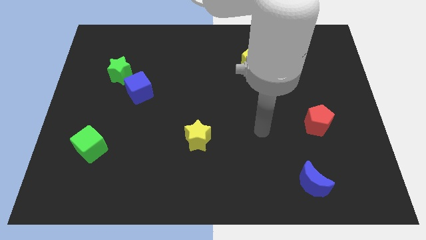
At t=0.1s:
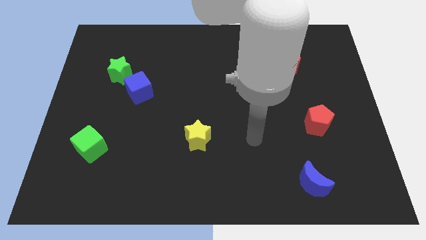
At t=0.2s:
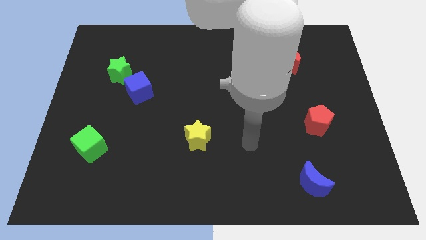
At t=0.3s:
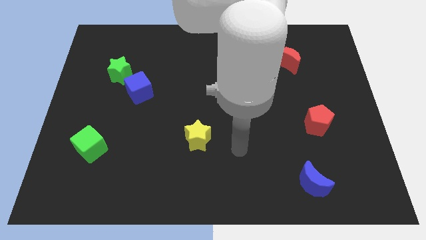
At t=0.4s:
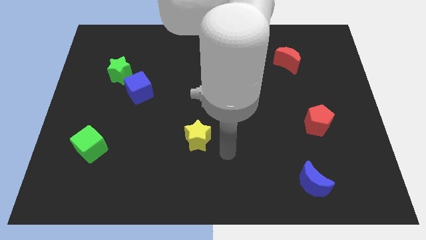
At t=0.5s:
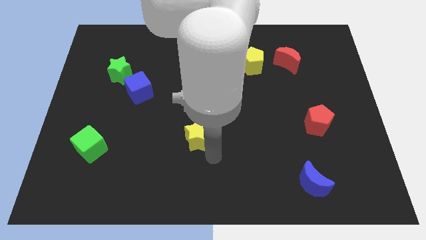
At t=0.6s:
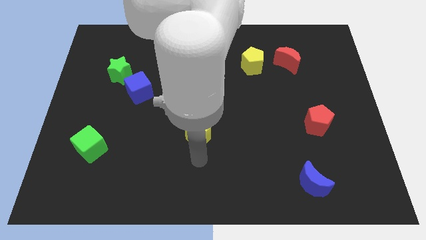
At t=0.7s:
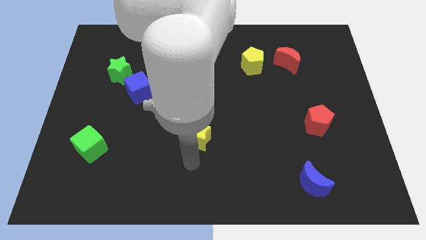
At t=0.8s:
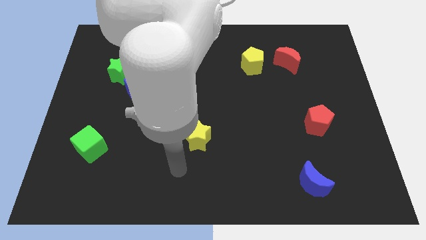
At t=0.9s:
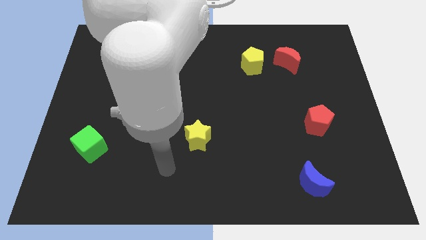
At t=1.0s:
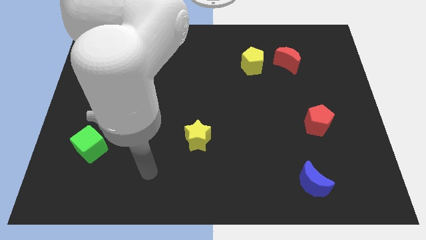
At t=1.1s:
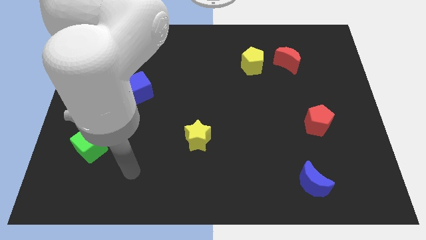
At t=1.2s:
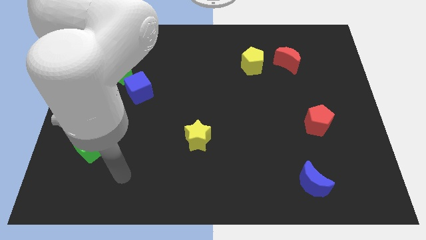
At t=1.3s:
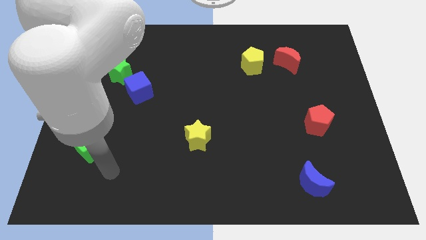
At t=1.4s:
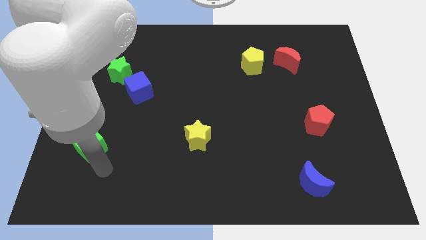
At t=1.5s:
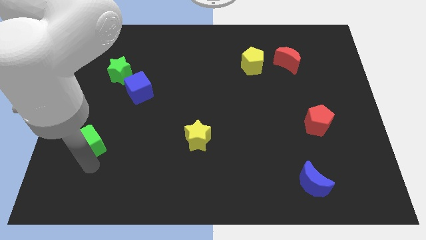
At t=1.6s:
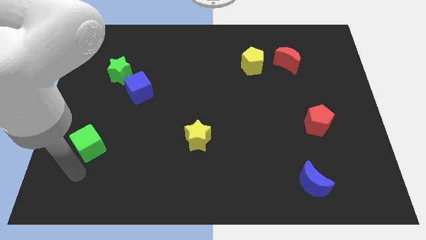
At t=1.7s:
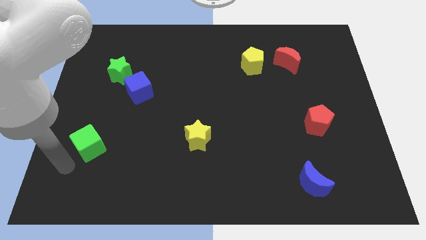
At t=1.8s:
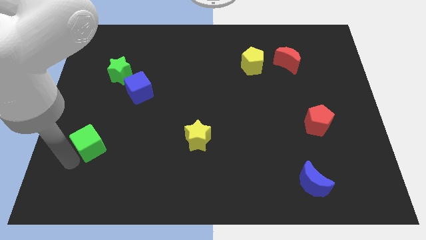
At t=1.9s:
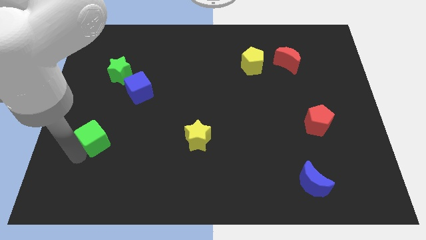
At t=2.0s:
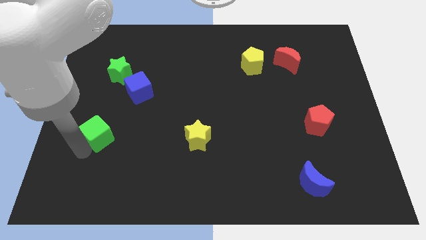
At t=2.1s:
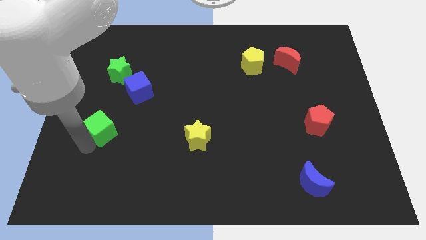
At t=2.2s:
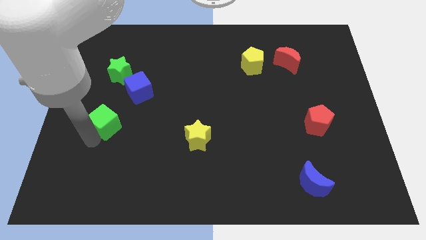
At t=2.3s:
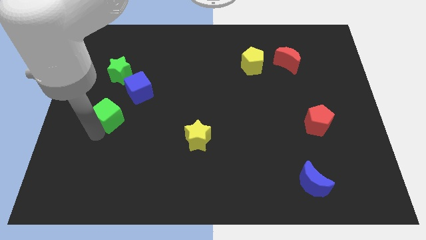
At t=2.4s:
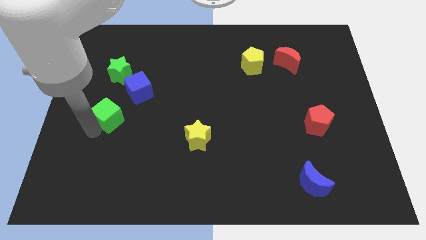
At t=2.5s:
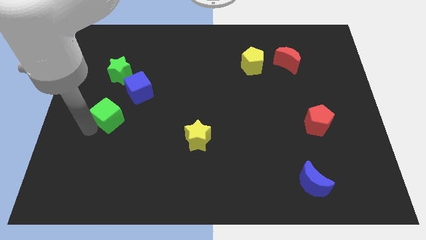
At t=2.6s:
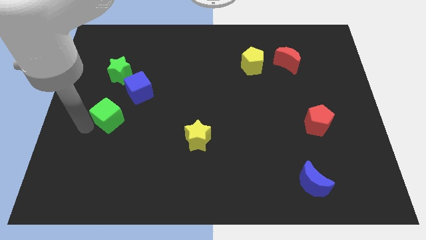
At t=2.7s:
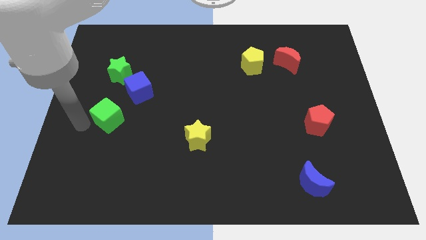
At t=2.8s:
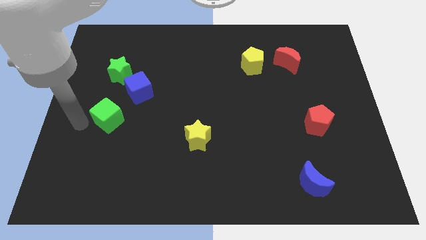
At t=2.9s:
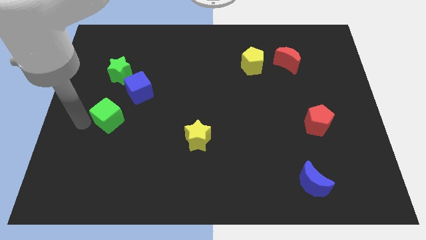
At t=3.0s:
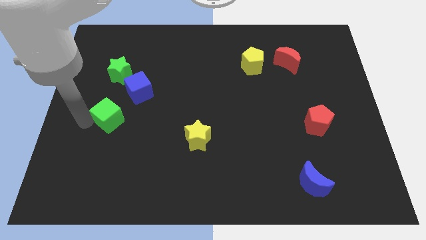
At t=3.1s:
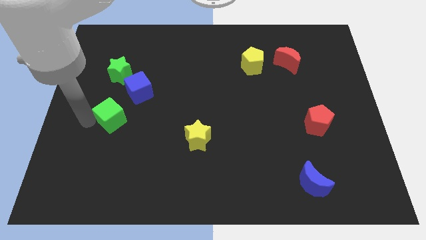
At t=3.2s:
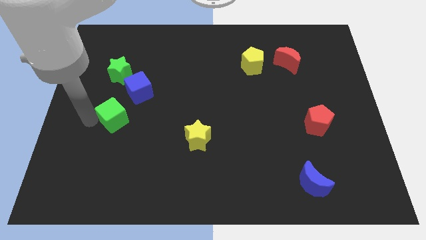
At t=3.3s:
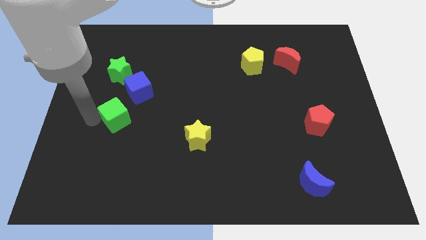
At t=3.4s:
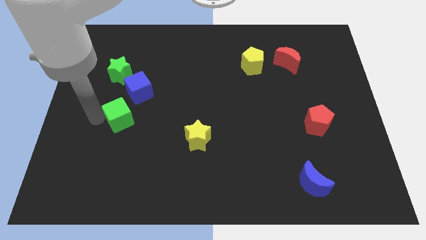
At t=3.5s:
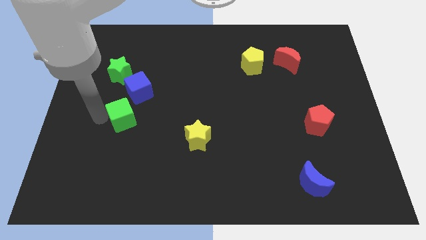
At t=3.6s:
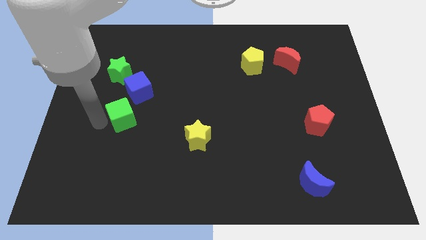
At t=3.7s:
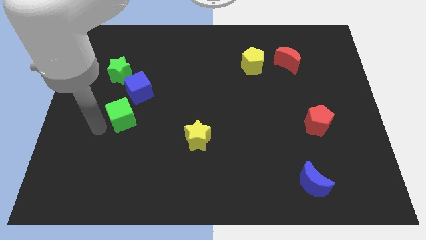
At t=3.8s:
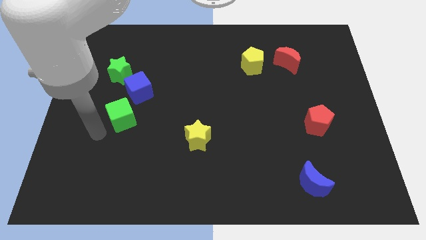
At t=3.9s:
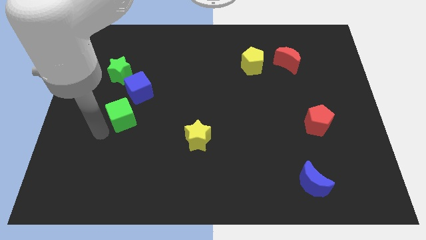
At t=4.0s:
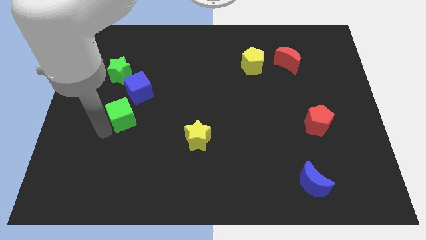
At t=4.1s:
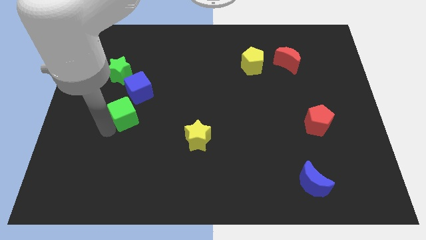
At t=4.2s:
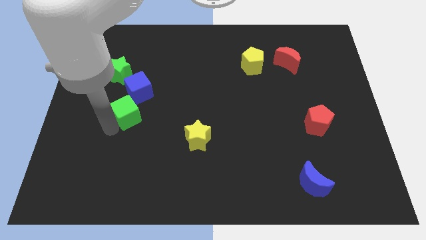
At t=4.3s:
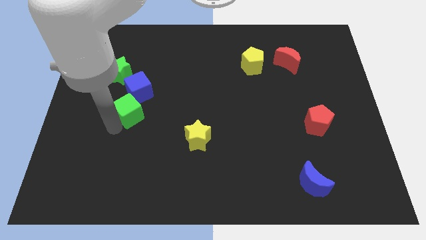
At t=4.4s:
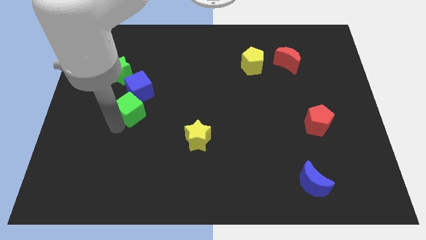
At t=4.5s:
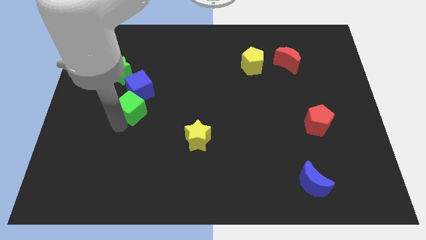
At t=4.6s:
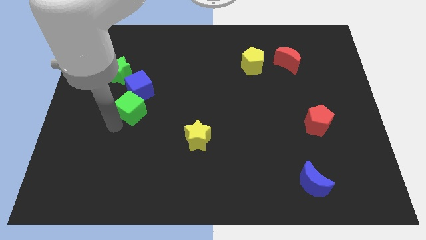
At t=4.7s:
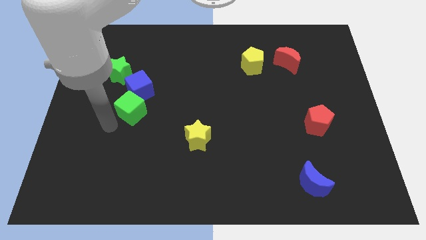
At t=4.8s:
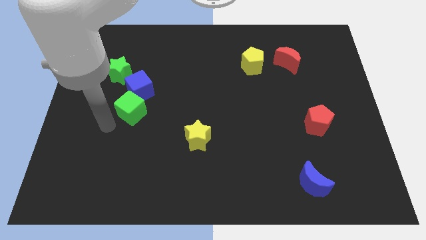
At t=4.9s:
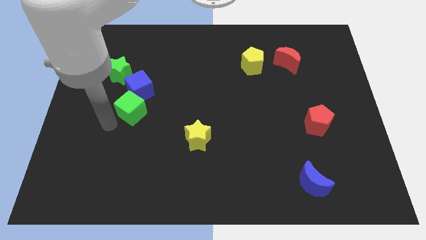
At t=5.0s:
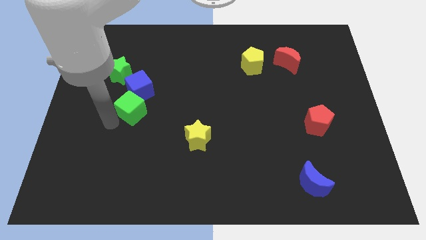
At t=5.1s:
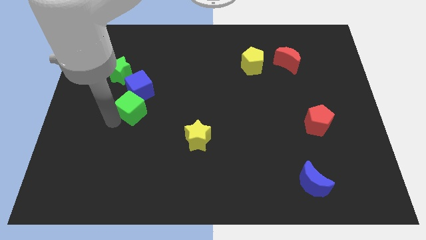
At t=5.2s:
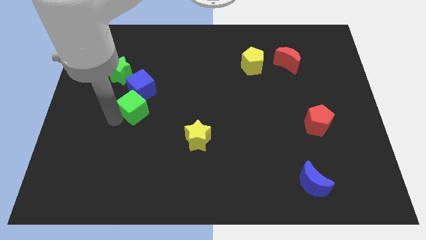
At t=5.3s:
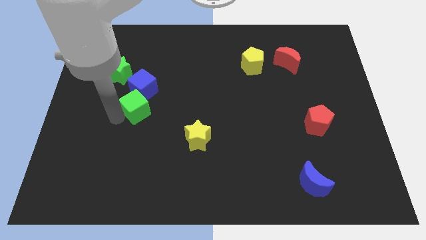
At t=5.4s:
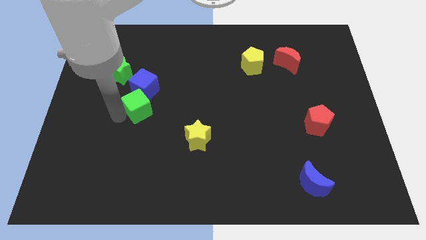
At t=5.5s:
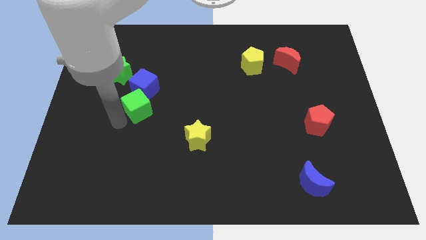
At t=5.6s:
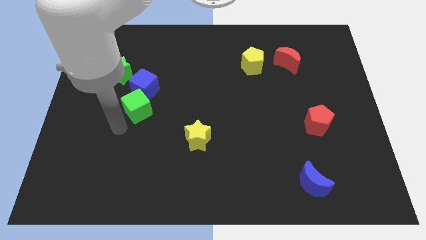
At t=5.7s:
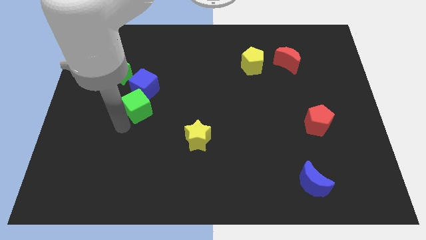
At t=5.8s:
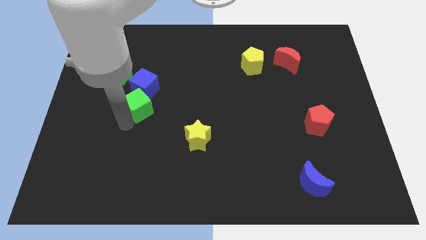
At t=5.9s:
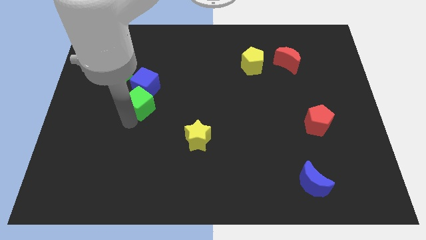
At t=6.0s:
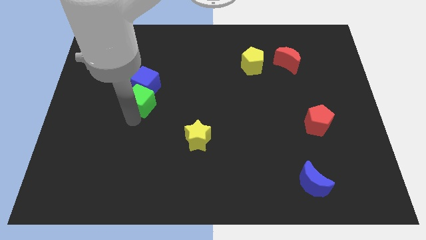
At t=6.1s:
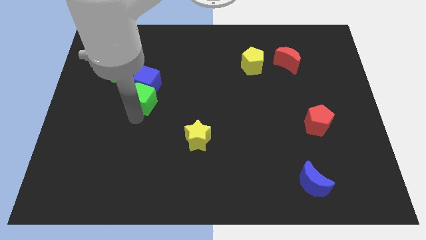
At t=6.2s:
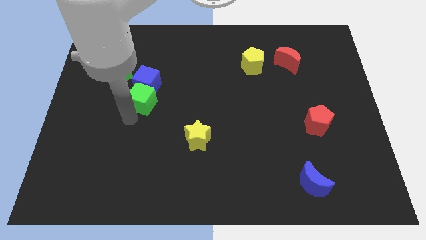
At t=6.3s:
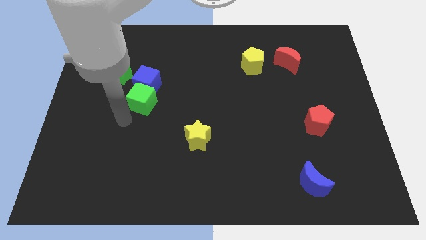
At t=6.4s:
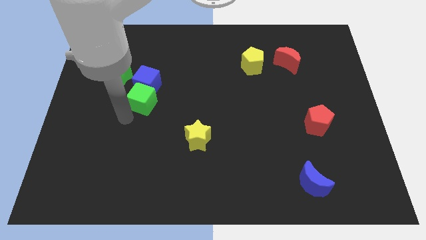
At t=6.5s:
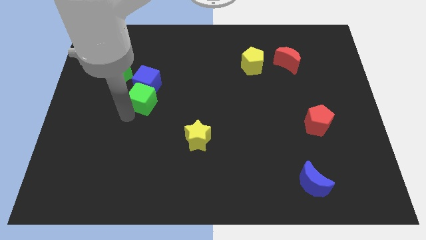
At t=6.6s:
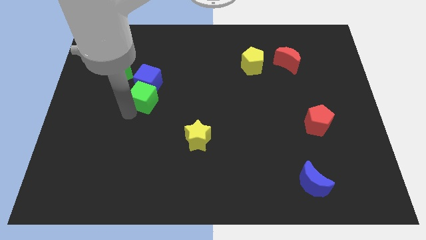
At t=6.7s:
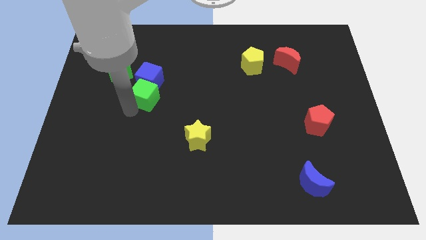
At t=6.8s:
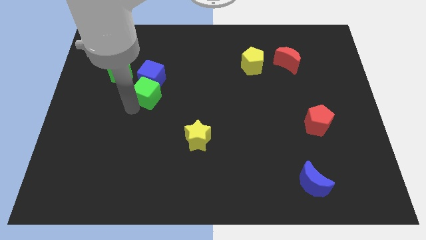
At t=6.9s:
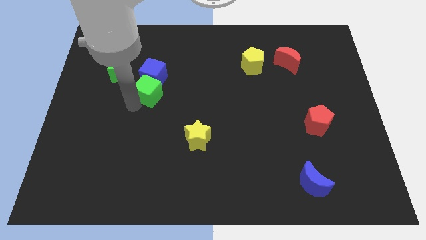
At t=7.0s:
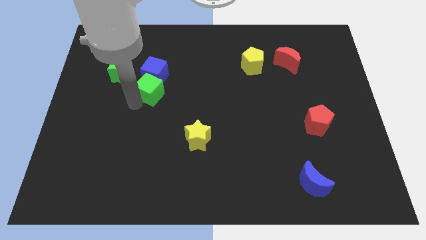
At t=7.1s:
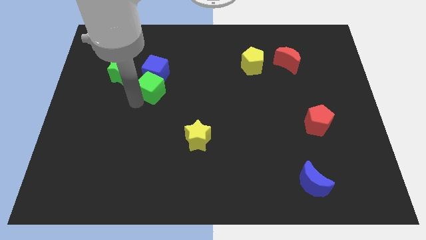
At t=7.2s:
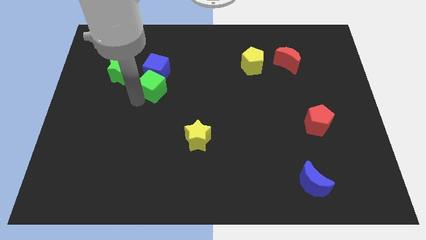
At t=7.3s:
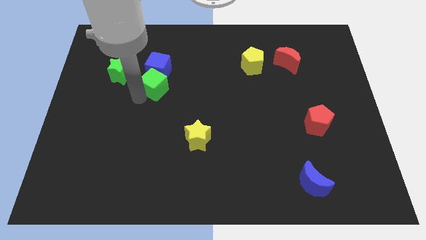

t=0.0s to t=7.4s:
push the green cube right of the green star
